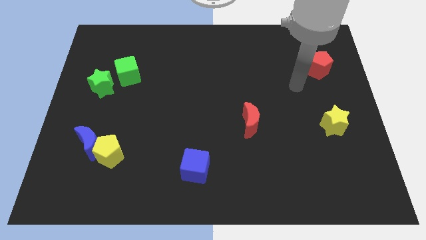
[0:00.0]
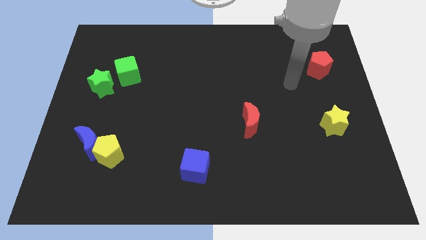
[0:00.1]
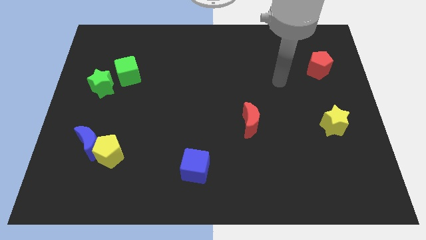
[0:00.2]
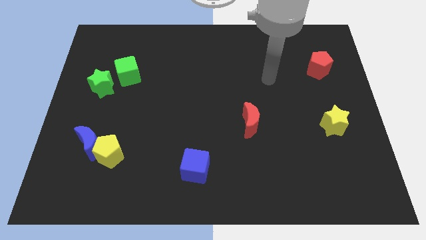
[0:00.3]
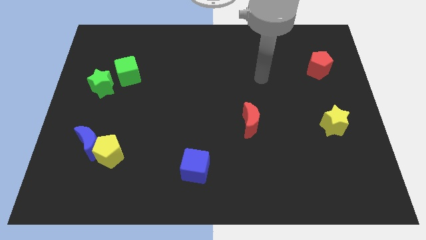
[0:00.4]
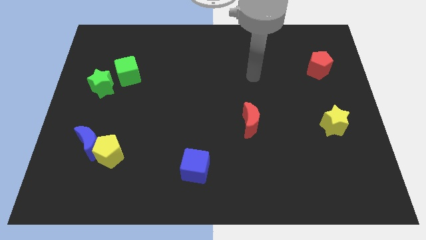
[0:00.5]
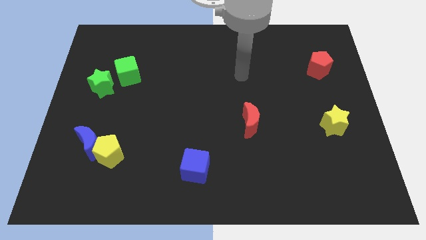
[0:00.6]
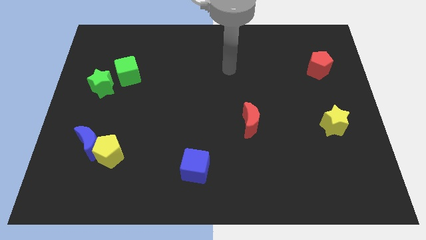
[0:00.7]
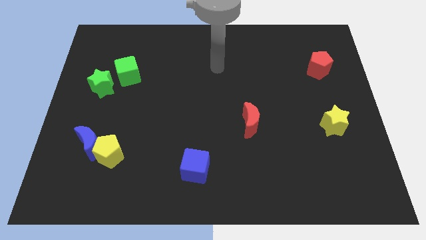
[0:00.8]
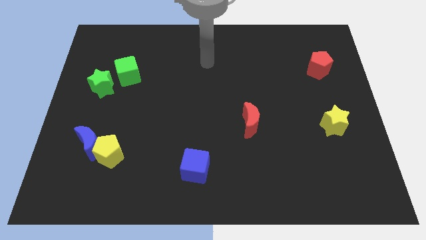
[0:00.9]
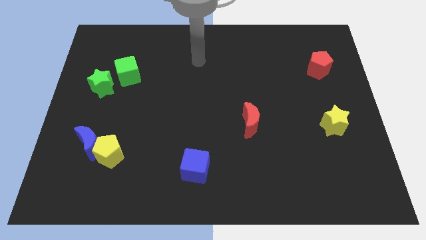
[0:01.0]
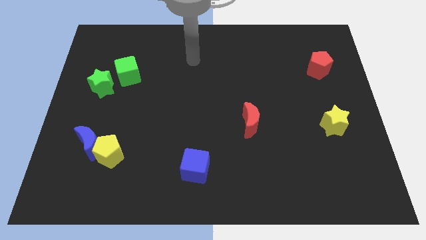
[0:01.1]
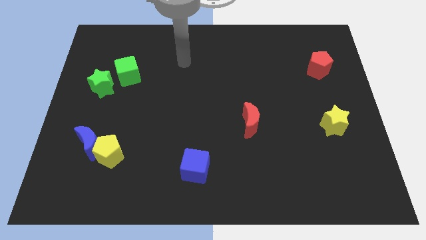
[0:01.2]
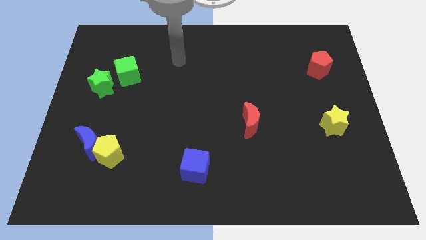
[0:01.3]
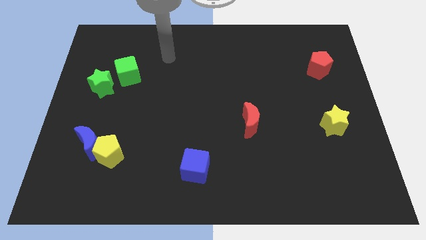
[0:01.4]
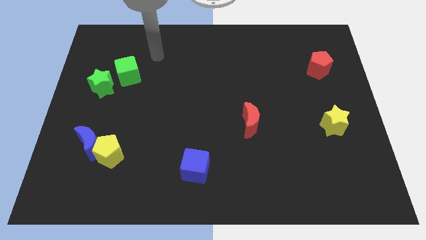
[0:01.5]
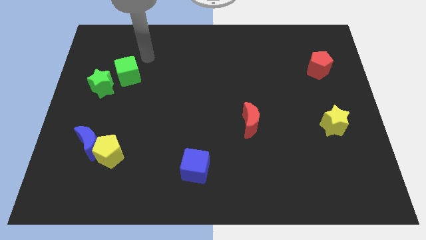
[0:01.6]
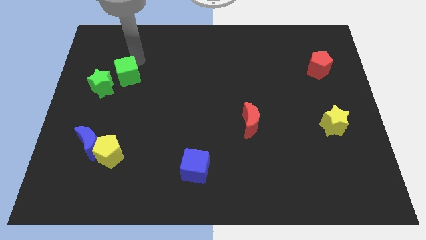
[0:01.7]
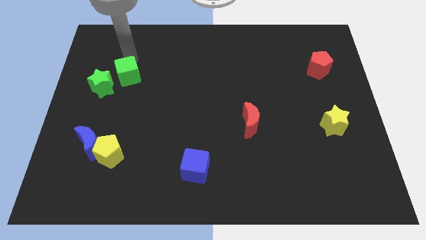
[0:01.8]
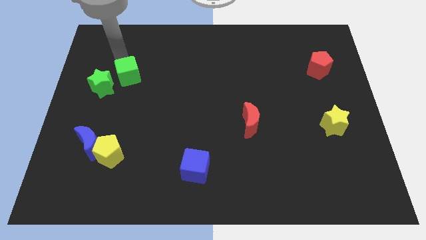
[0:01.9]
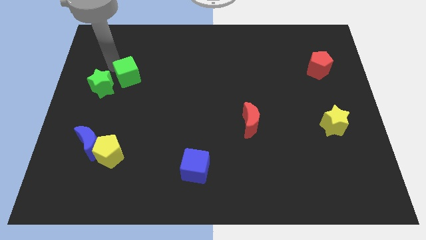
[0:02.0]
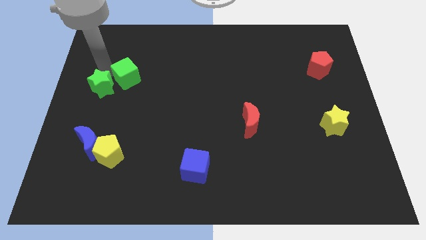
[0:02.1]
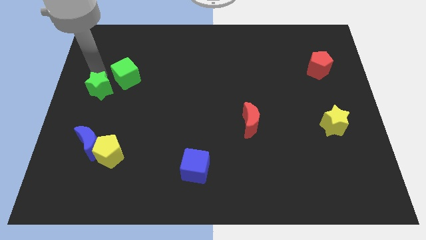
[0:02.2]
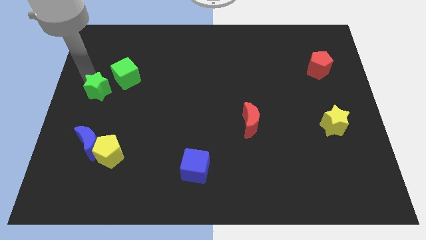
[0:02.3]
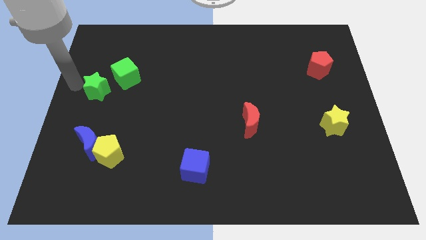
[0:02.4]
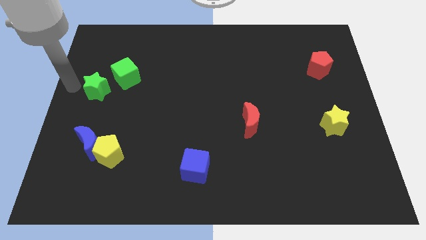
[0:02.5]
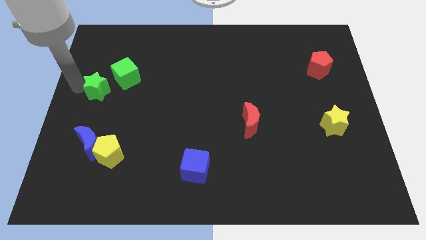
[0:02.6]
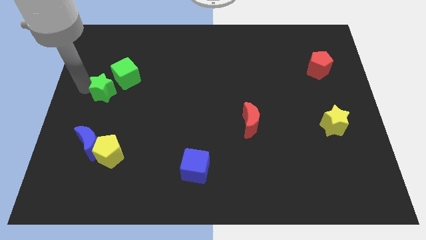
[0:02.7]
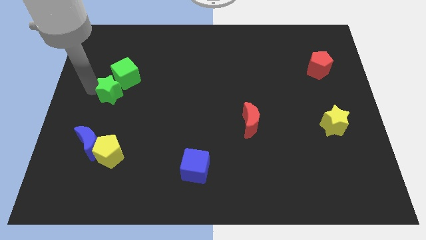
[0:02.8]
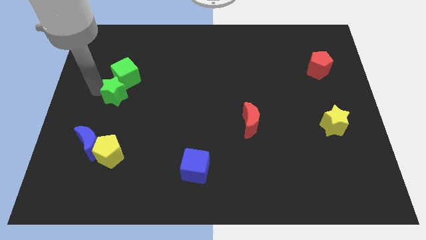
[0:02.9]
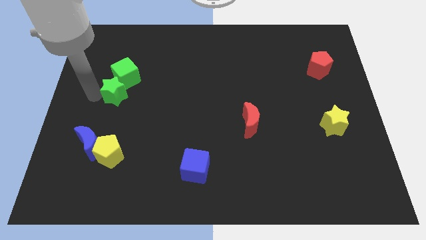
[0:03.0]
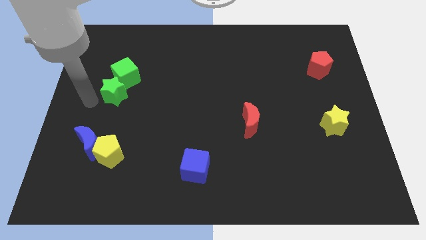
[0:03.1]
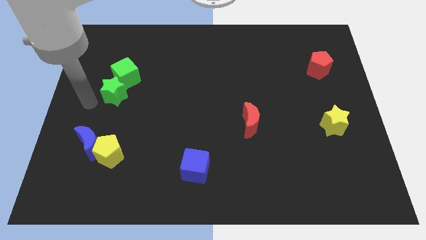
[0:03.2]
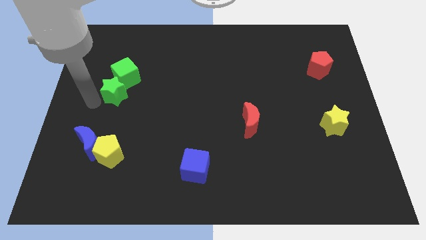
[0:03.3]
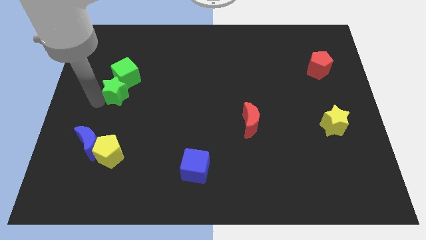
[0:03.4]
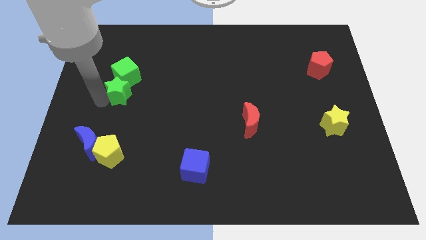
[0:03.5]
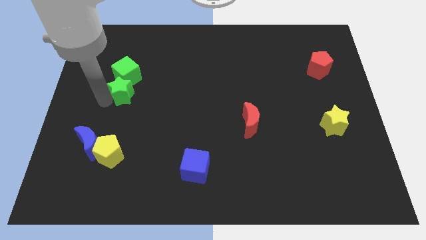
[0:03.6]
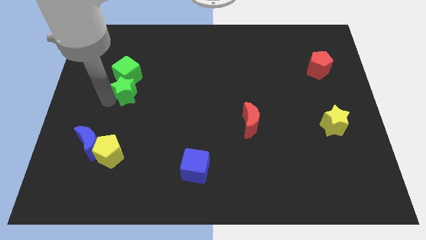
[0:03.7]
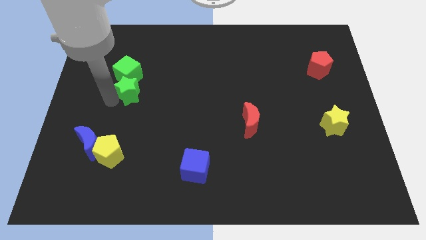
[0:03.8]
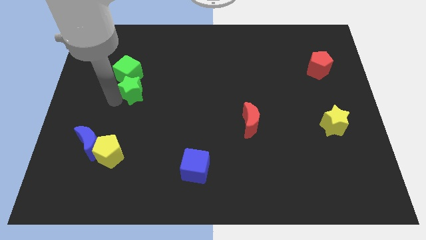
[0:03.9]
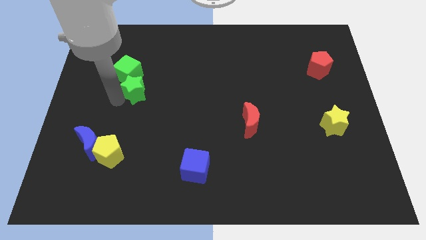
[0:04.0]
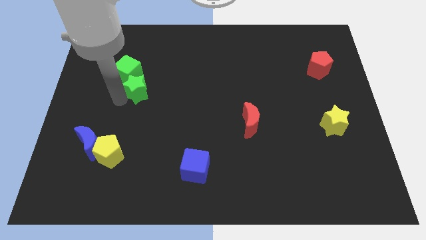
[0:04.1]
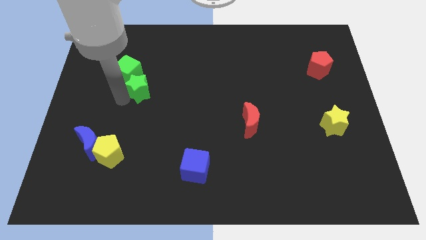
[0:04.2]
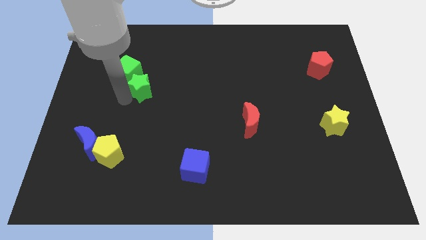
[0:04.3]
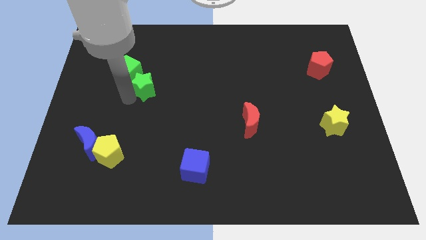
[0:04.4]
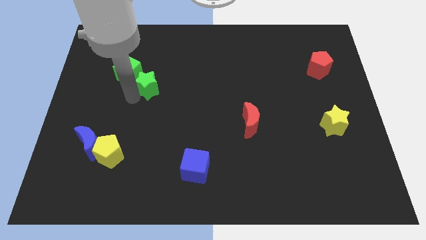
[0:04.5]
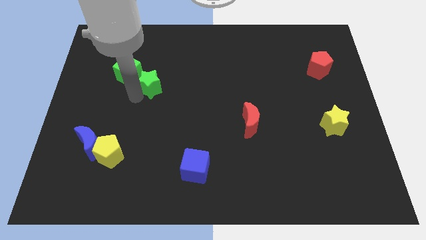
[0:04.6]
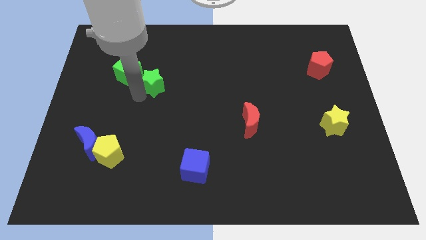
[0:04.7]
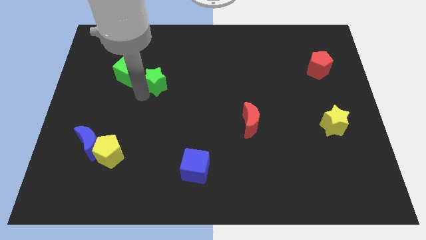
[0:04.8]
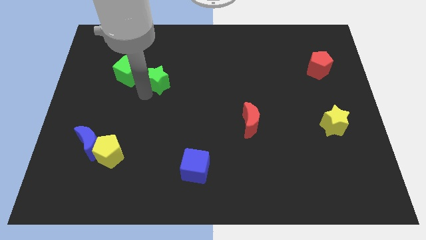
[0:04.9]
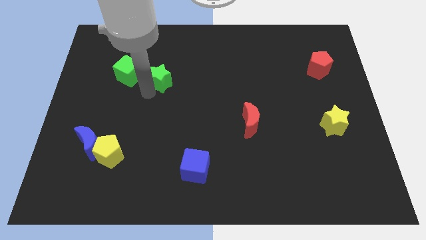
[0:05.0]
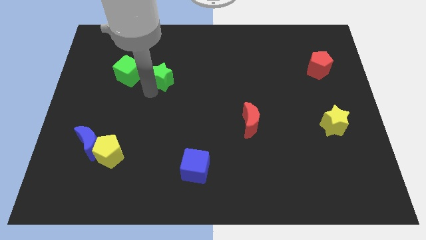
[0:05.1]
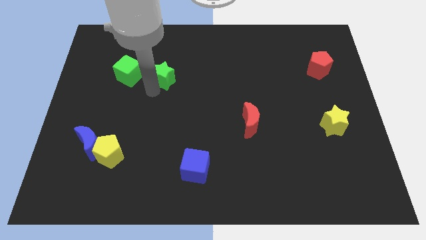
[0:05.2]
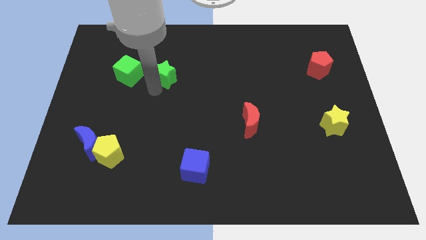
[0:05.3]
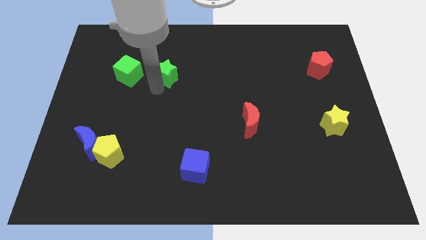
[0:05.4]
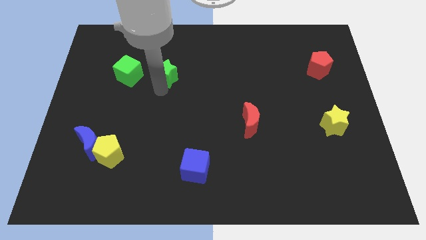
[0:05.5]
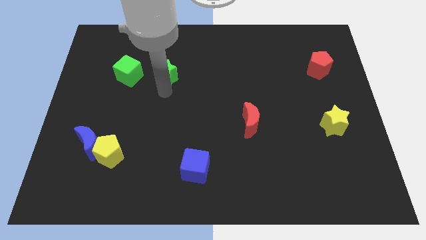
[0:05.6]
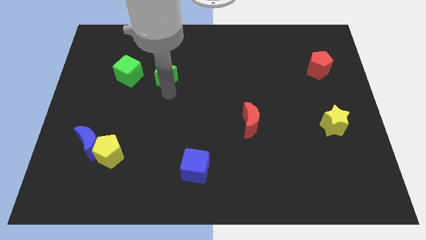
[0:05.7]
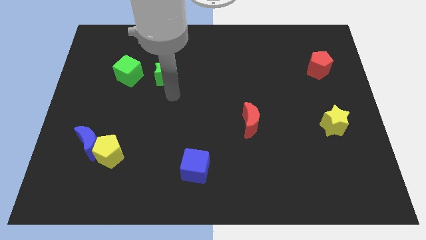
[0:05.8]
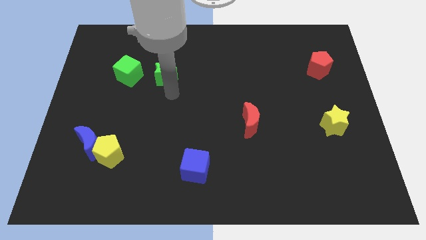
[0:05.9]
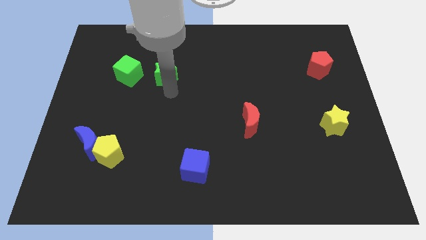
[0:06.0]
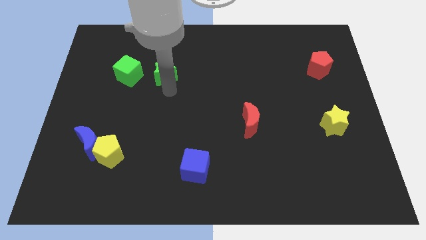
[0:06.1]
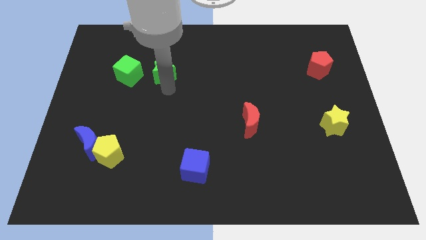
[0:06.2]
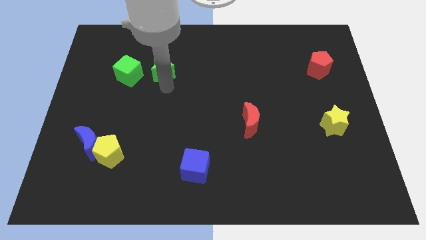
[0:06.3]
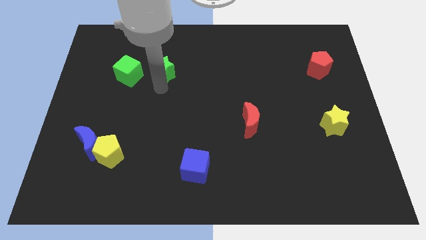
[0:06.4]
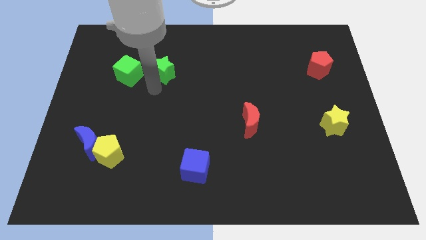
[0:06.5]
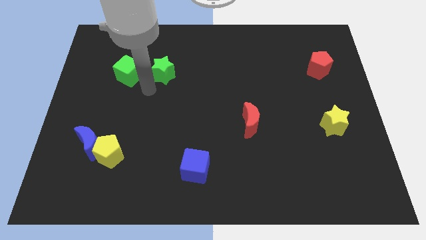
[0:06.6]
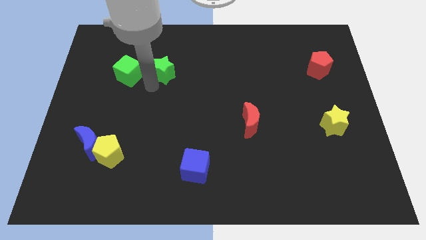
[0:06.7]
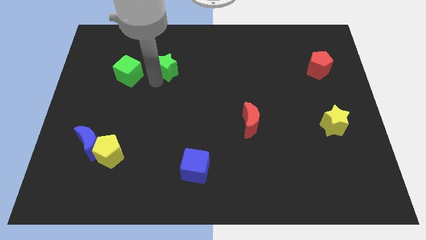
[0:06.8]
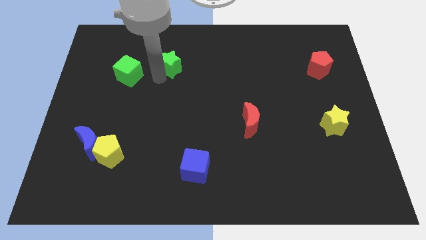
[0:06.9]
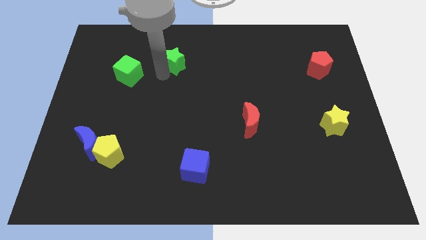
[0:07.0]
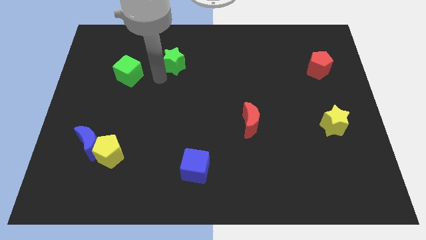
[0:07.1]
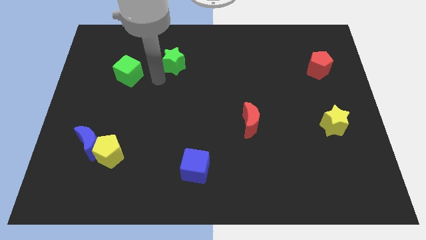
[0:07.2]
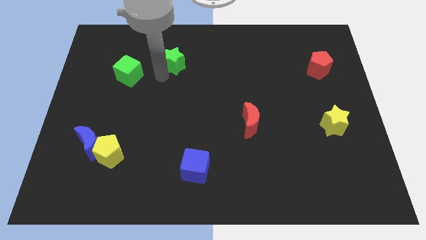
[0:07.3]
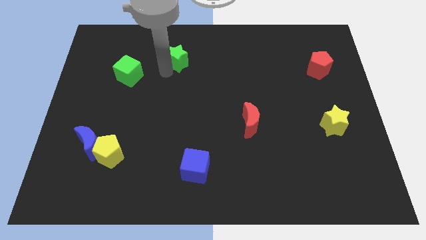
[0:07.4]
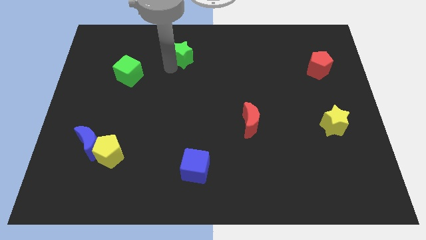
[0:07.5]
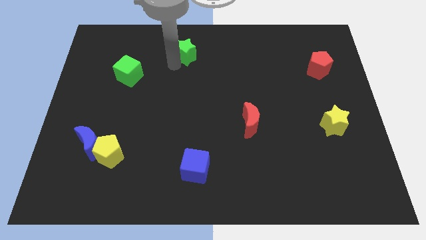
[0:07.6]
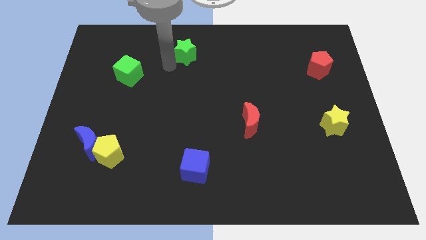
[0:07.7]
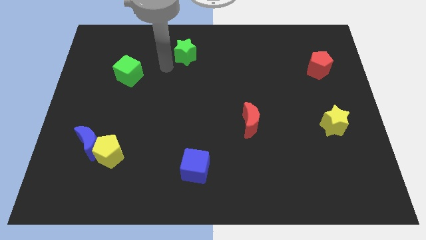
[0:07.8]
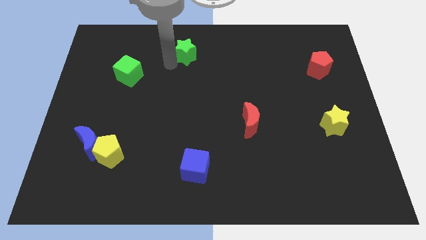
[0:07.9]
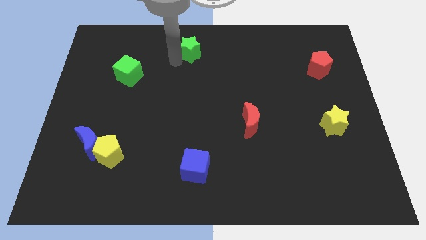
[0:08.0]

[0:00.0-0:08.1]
push the green star to the top

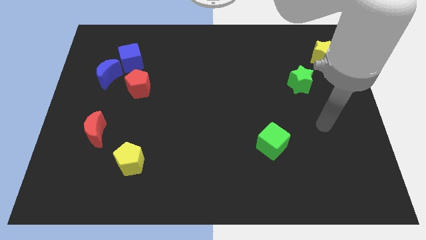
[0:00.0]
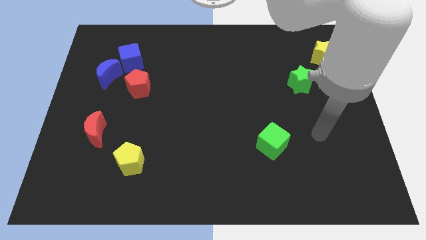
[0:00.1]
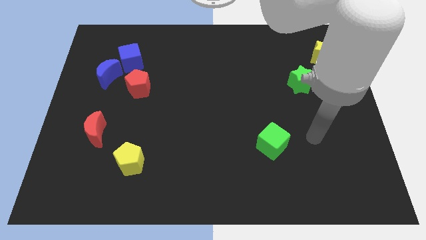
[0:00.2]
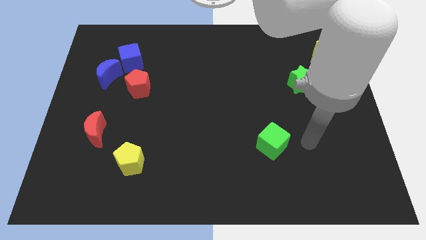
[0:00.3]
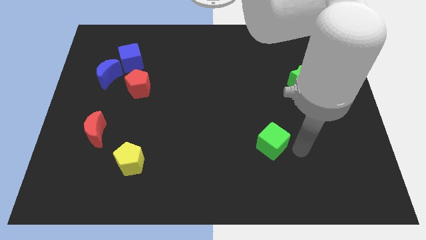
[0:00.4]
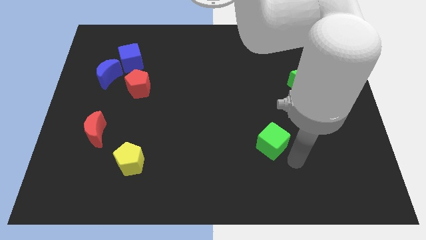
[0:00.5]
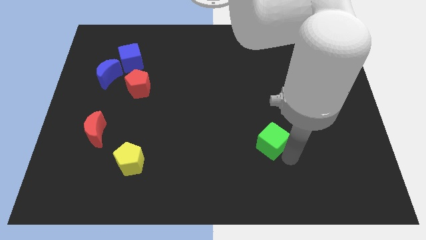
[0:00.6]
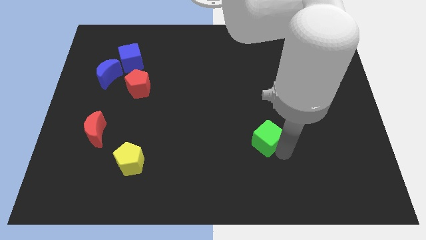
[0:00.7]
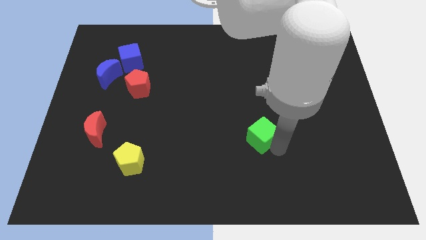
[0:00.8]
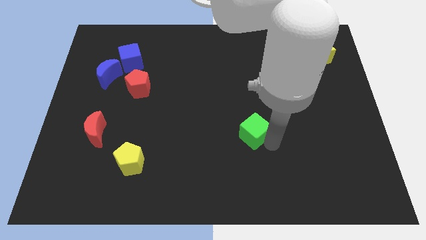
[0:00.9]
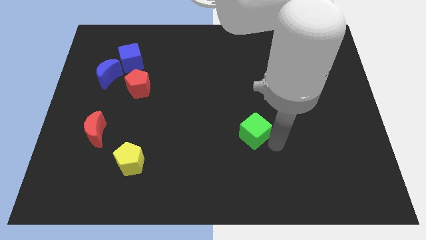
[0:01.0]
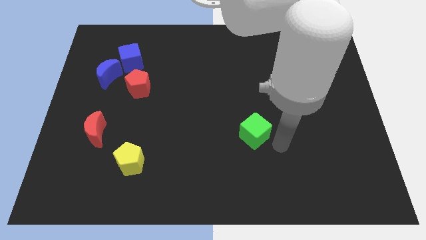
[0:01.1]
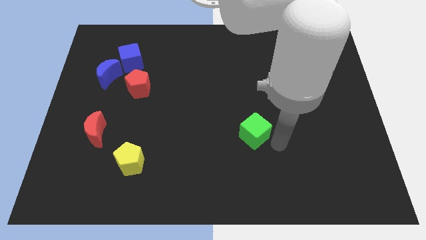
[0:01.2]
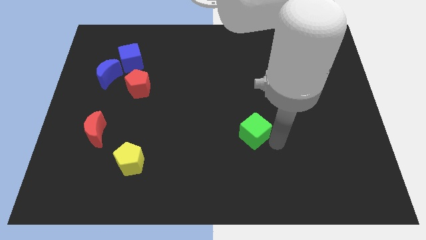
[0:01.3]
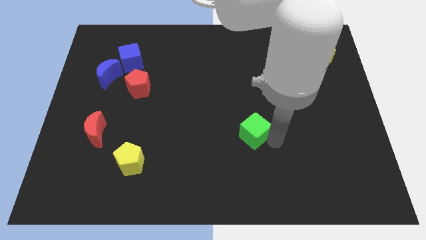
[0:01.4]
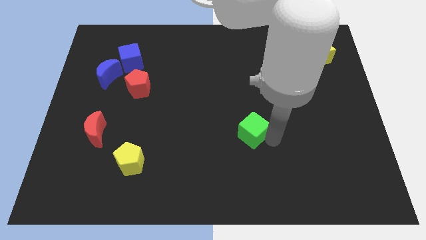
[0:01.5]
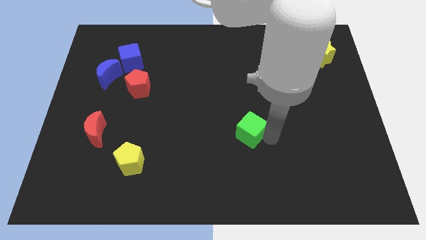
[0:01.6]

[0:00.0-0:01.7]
put the green cube to the middle of the board
